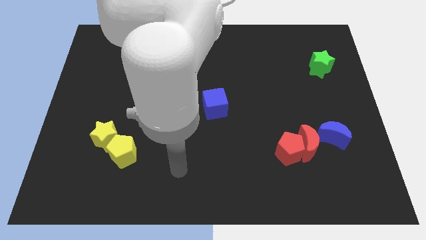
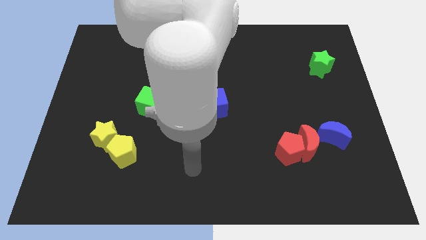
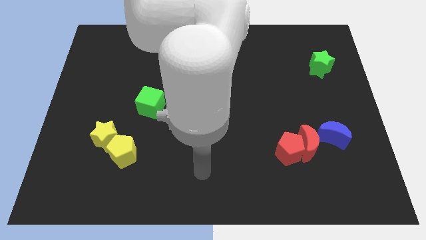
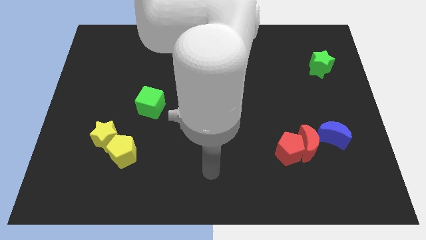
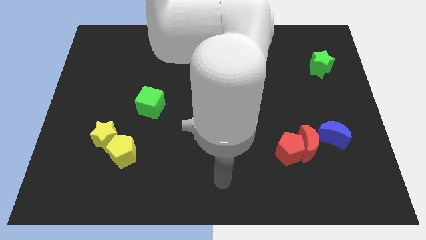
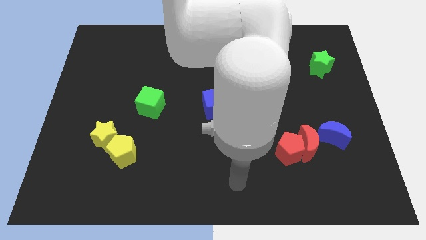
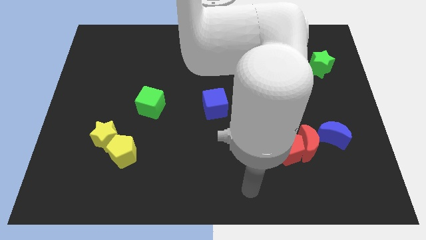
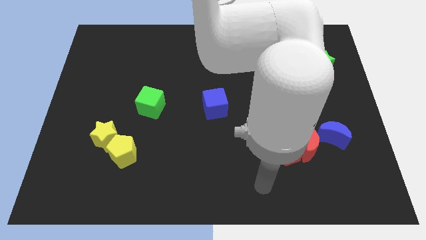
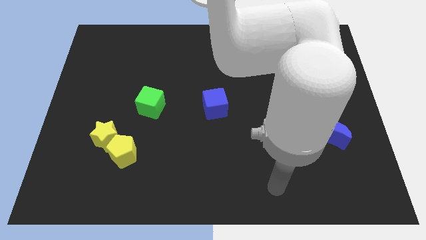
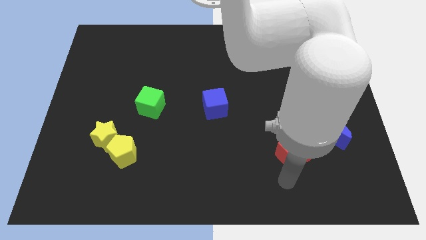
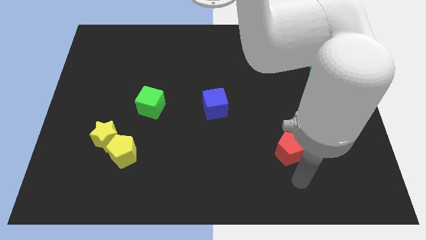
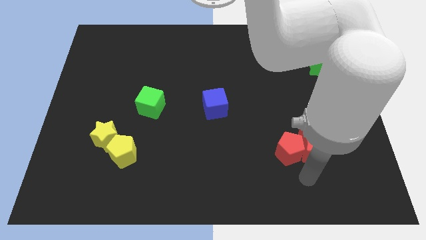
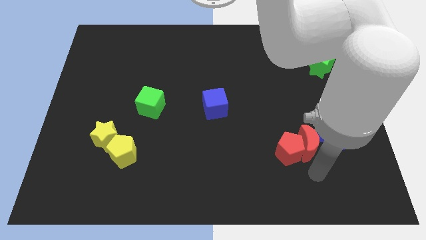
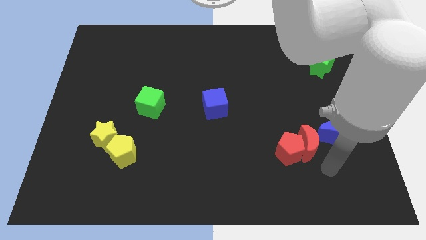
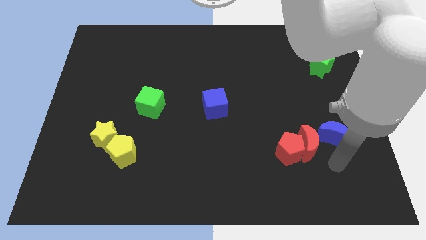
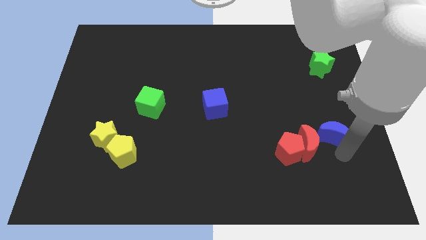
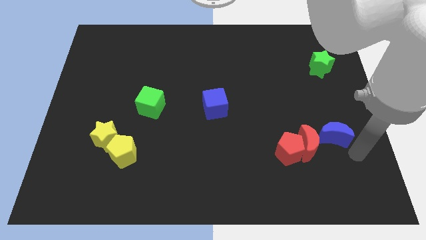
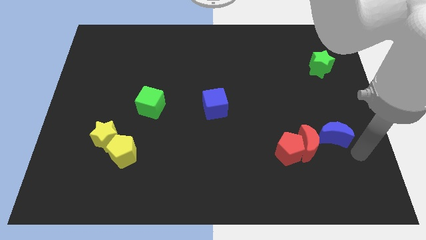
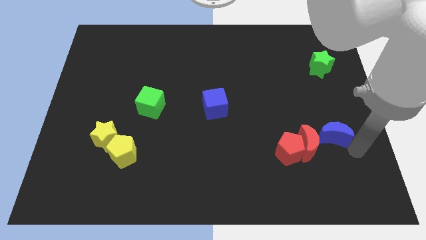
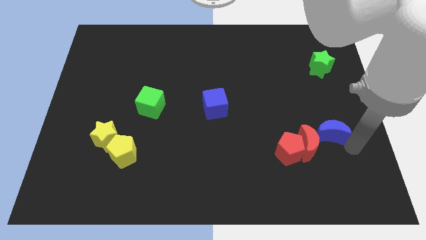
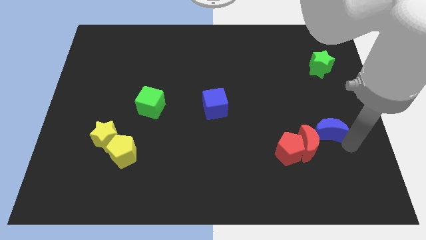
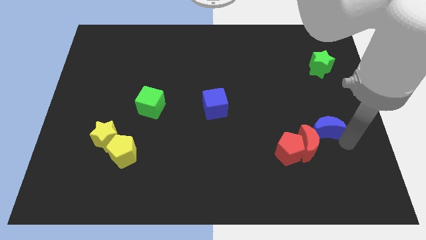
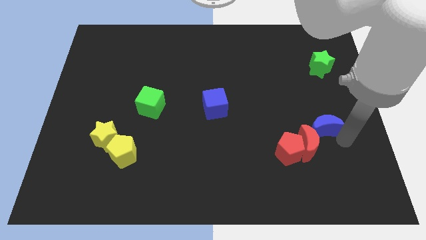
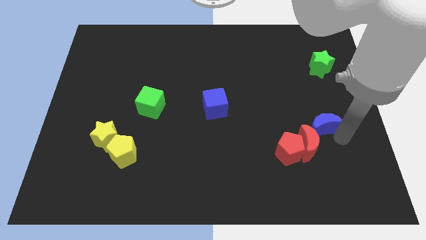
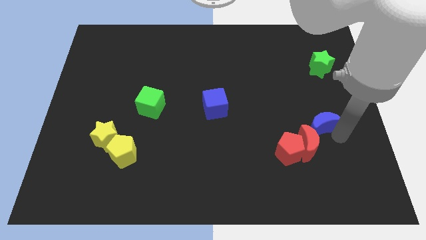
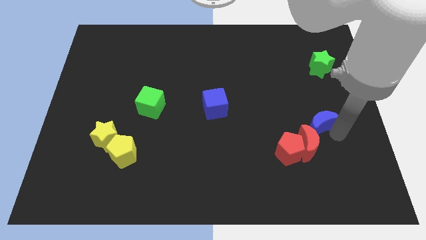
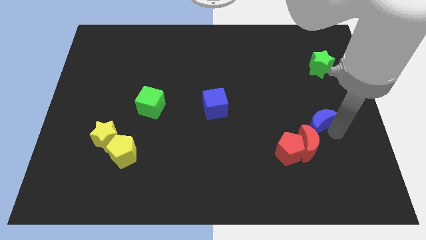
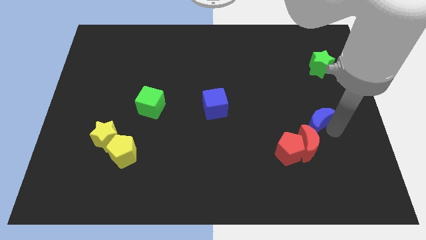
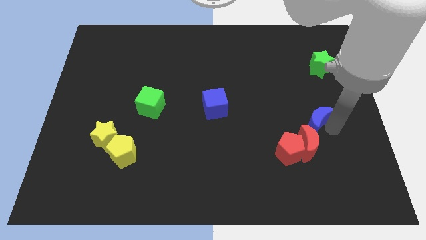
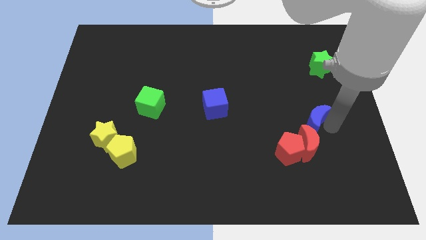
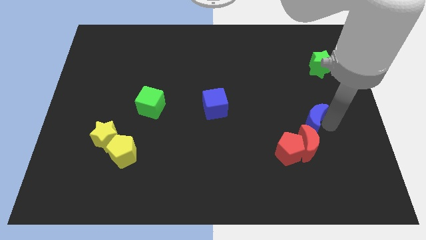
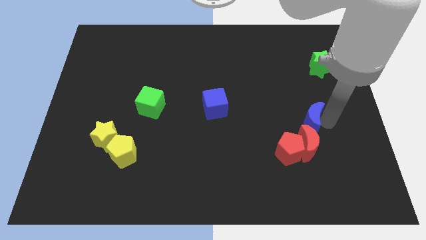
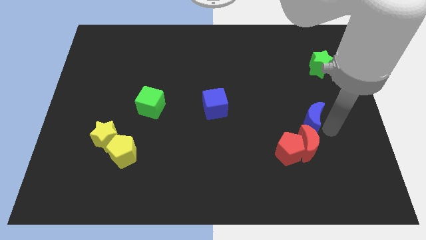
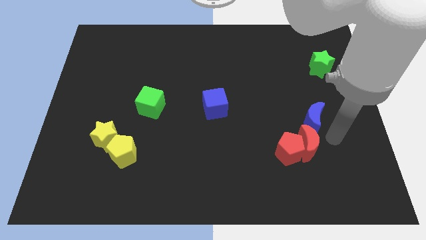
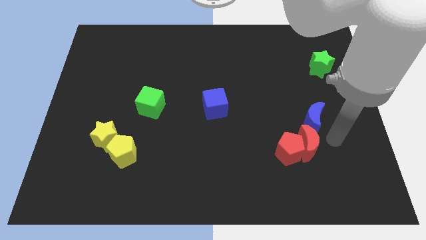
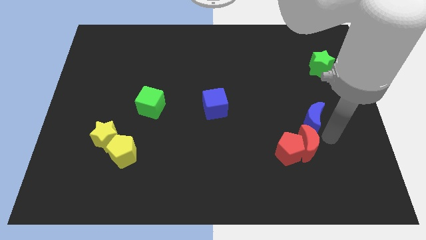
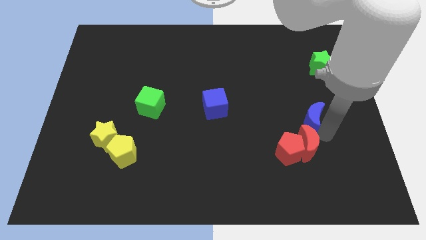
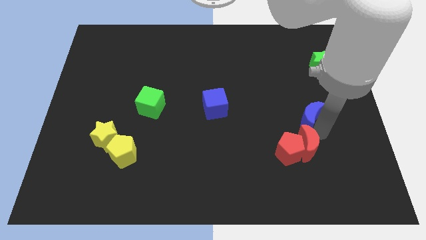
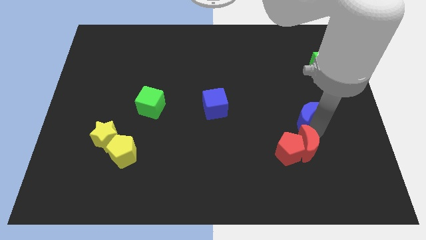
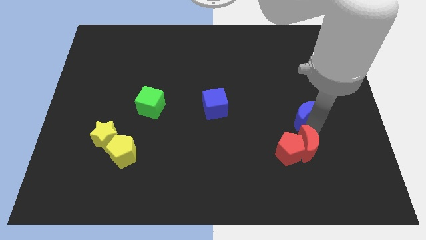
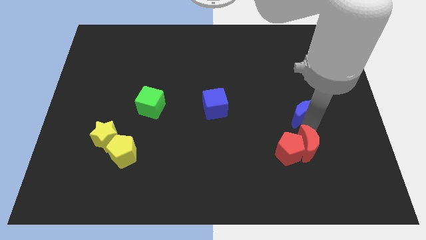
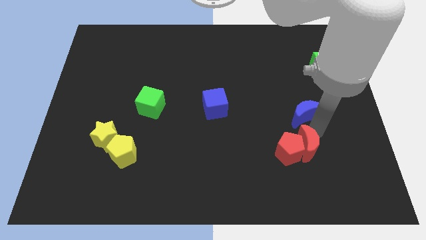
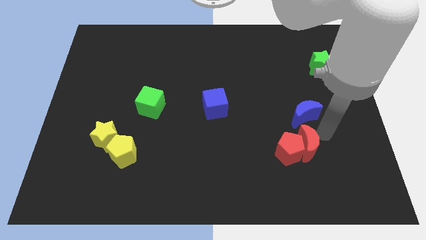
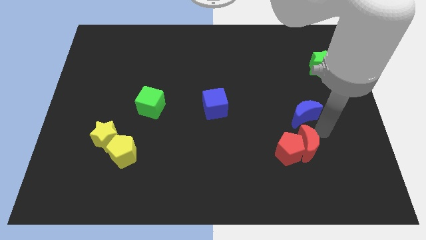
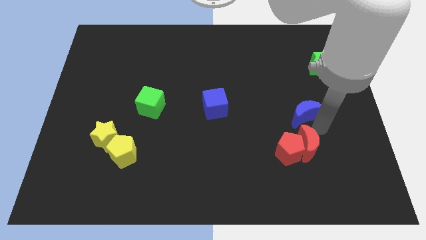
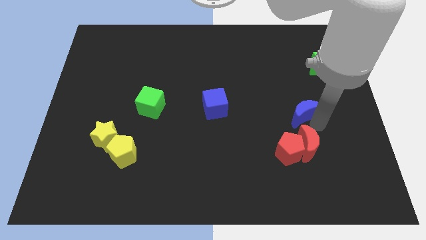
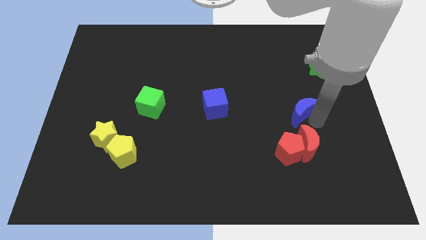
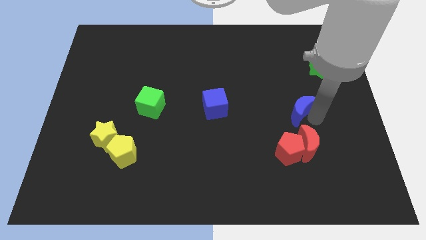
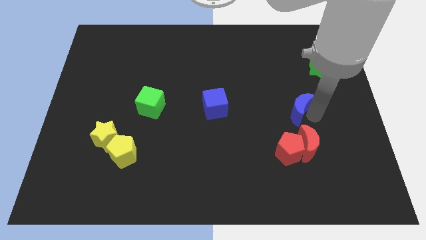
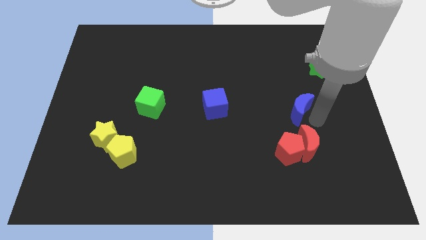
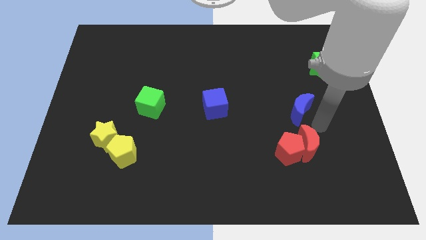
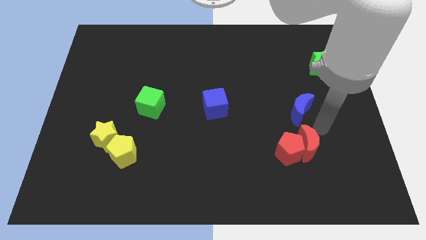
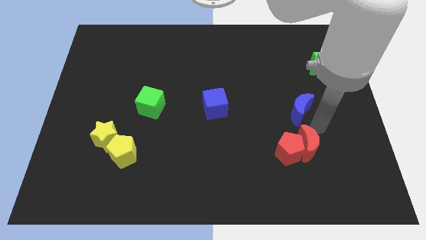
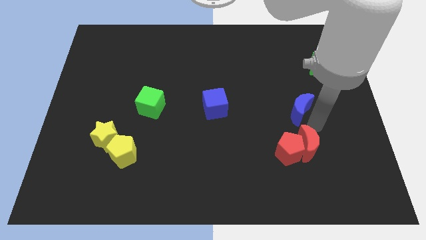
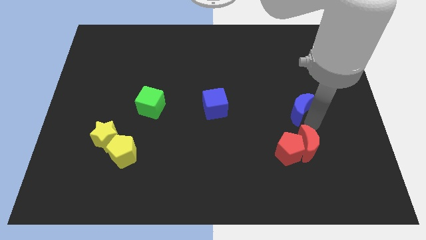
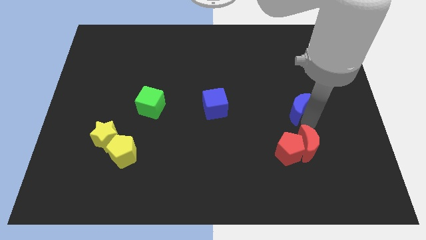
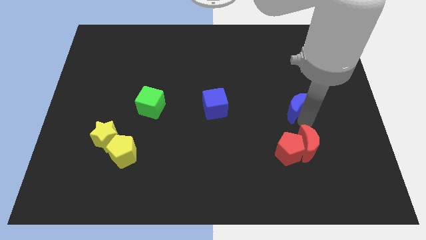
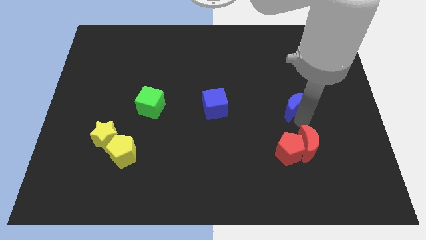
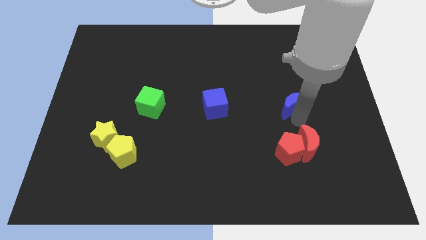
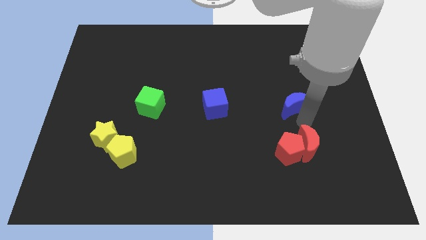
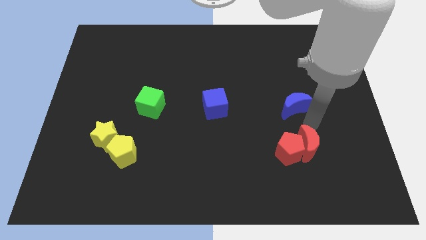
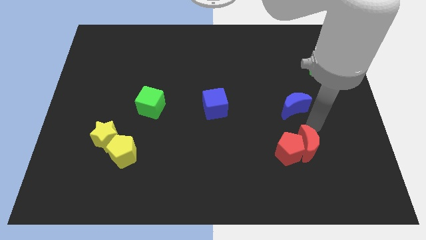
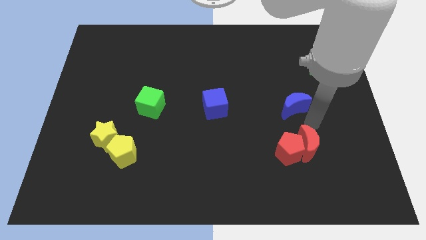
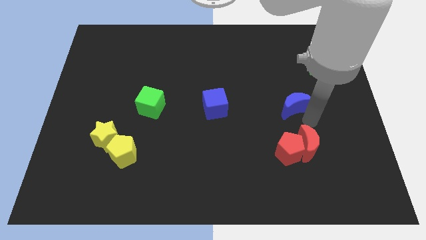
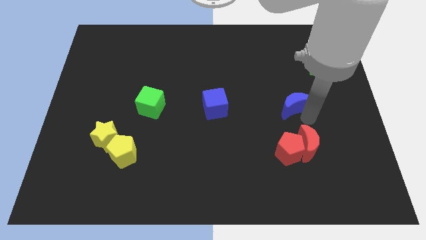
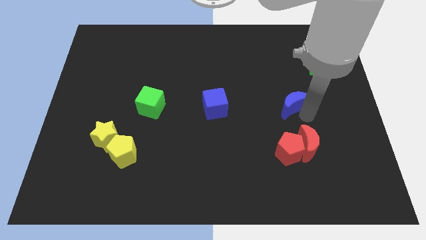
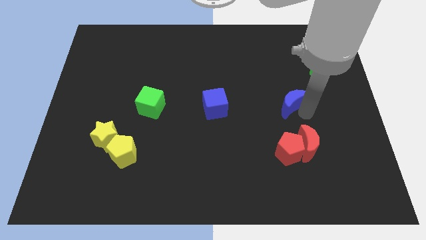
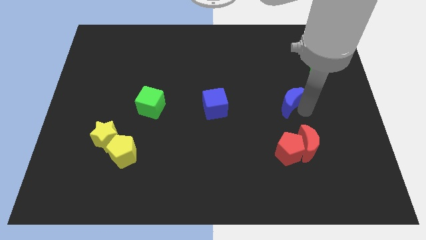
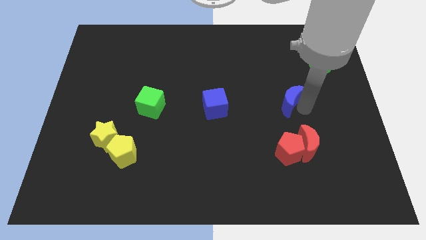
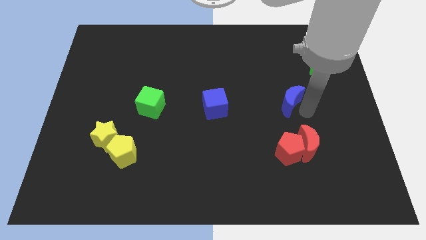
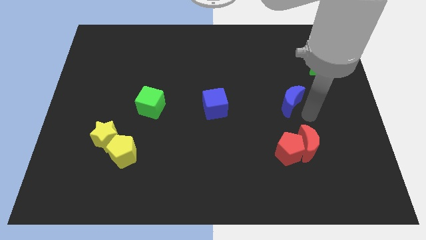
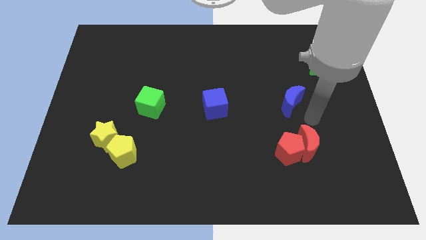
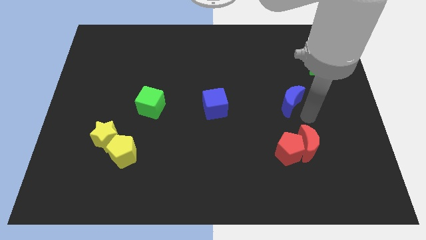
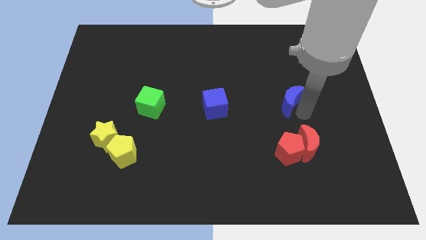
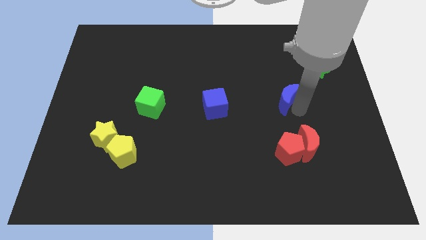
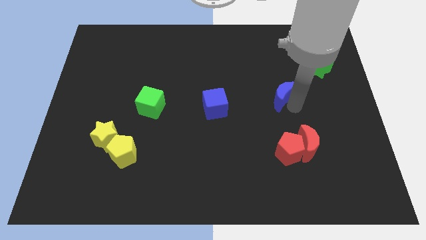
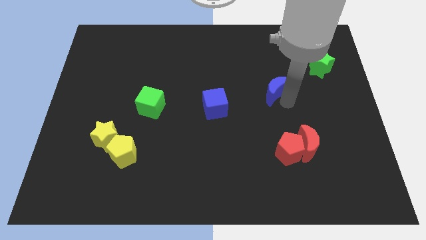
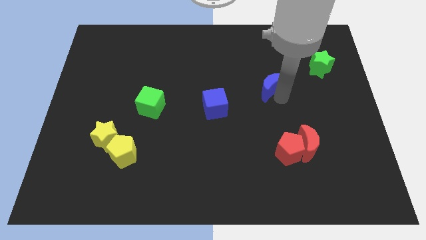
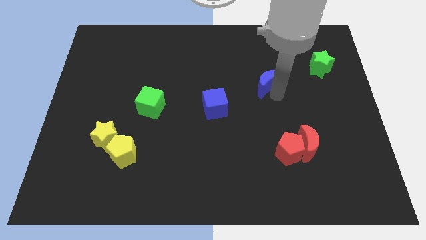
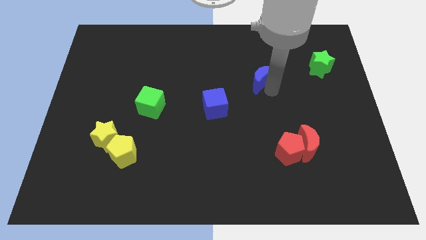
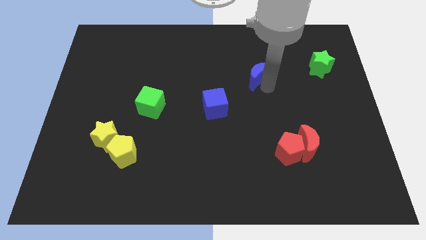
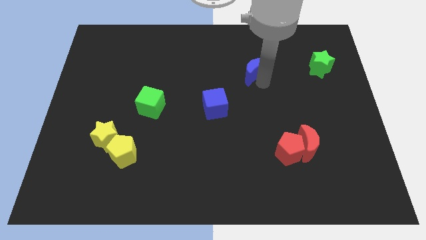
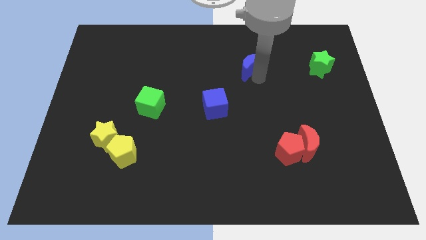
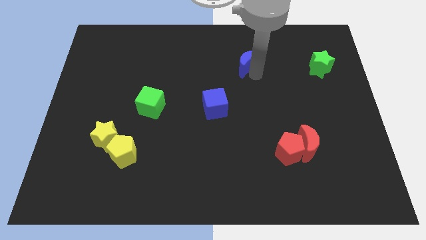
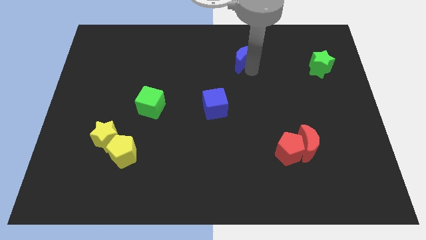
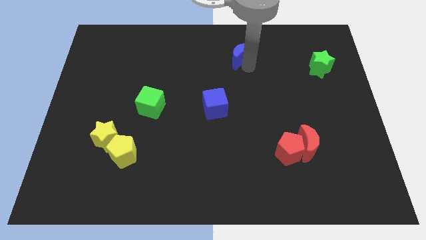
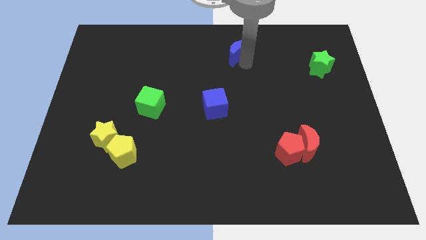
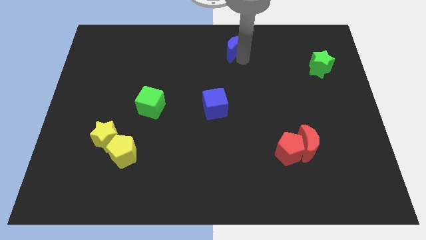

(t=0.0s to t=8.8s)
put the blue moon to the top
